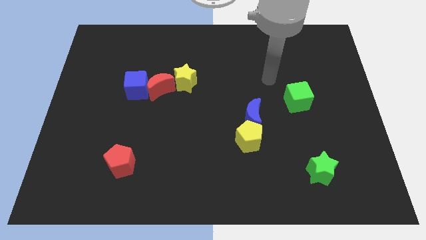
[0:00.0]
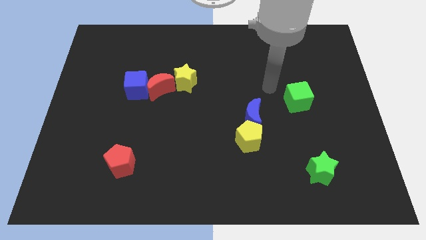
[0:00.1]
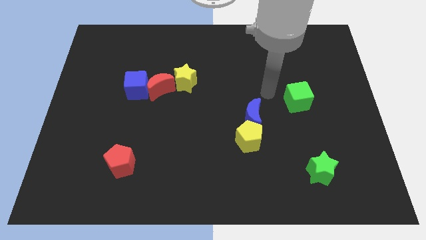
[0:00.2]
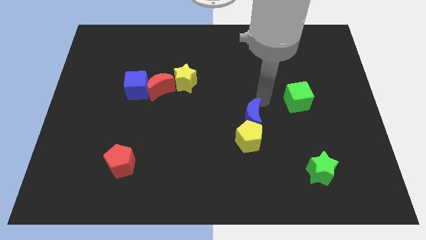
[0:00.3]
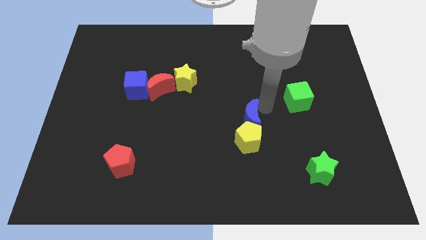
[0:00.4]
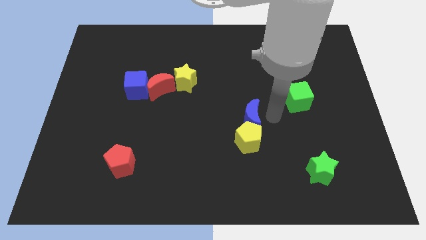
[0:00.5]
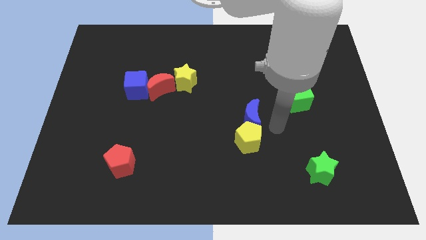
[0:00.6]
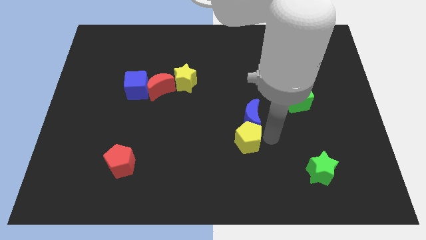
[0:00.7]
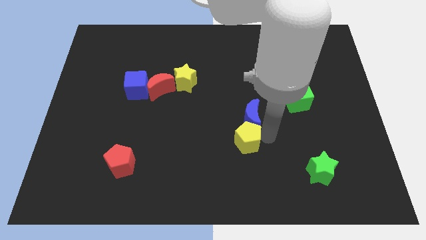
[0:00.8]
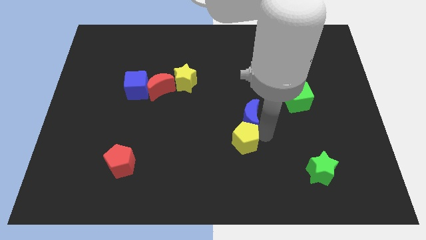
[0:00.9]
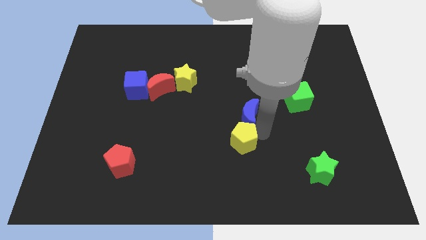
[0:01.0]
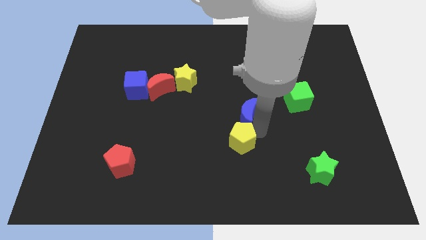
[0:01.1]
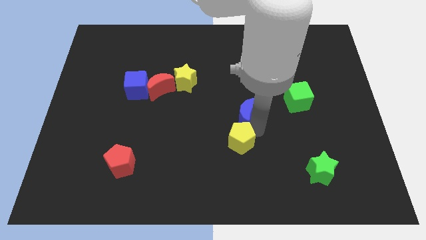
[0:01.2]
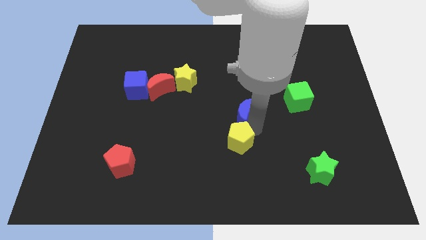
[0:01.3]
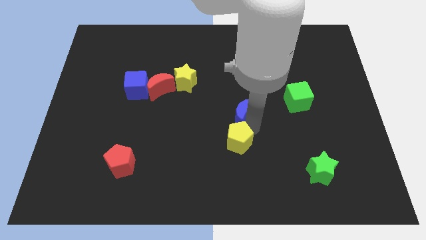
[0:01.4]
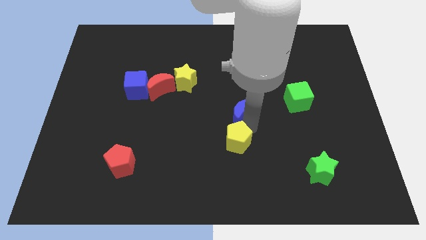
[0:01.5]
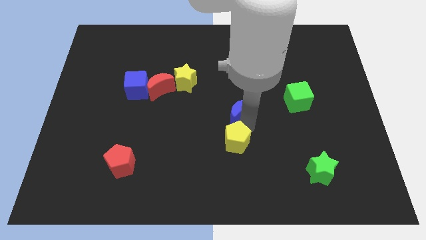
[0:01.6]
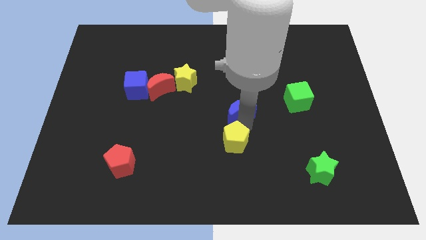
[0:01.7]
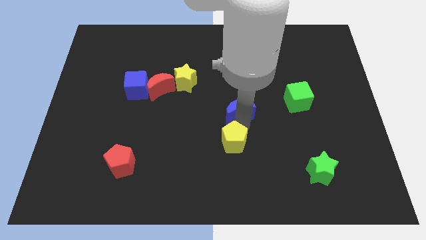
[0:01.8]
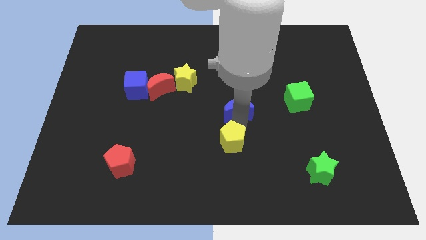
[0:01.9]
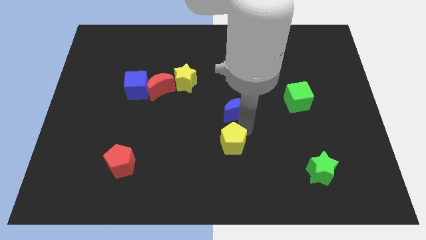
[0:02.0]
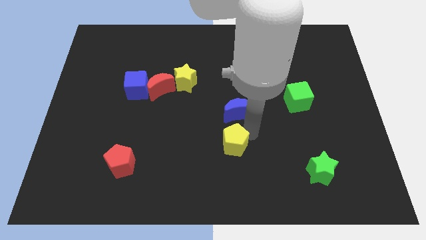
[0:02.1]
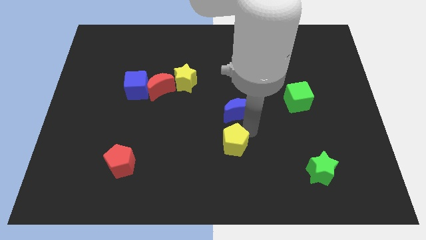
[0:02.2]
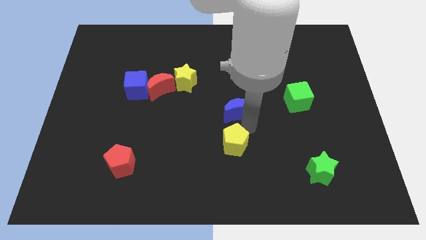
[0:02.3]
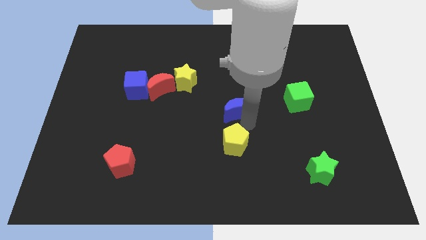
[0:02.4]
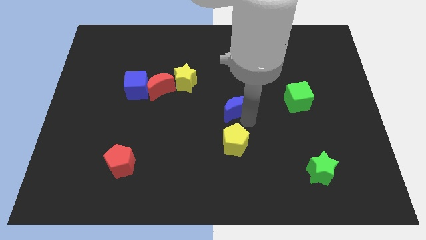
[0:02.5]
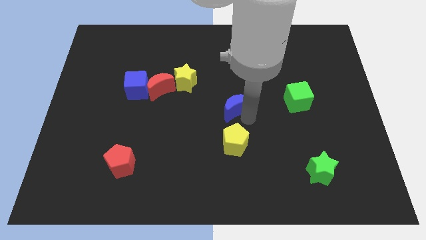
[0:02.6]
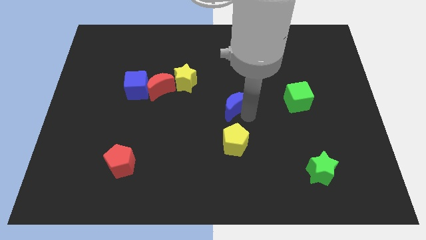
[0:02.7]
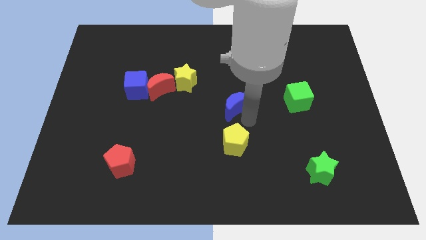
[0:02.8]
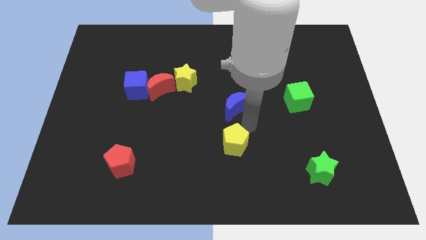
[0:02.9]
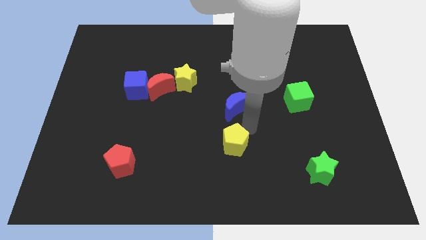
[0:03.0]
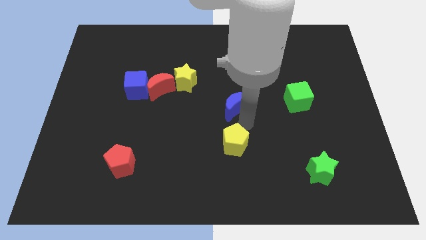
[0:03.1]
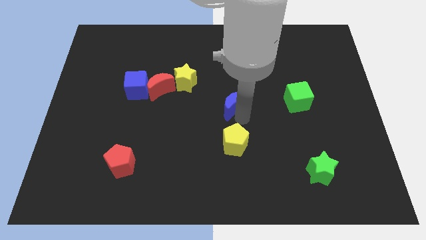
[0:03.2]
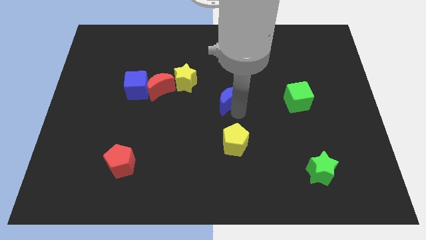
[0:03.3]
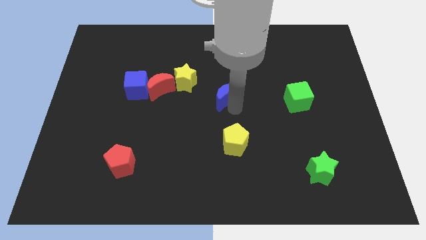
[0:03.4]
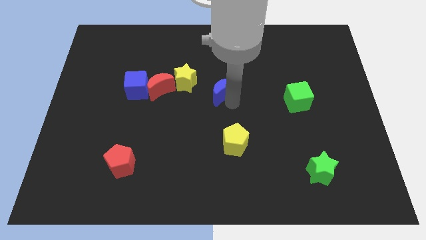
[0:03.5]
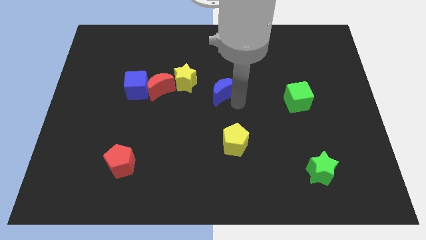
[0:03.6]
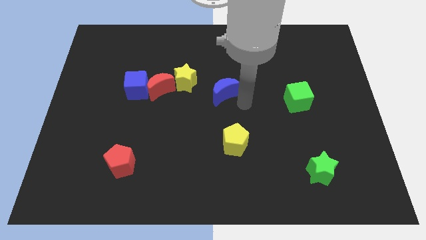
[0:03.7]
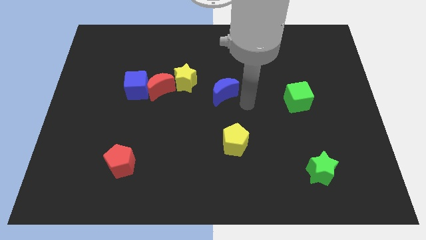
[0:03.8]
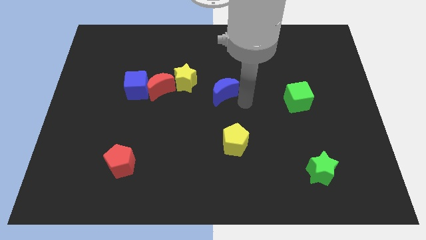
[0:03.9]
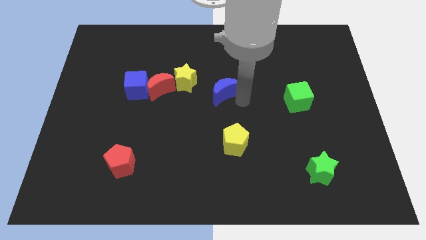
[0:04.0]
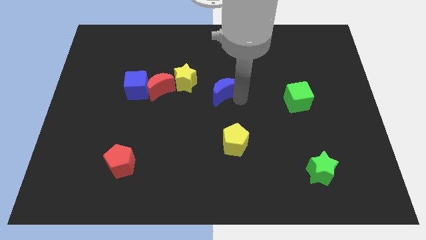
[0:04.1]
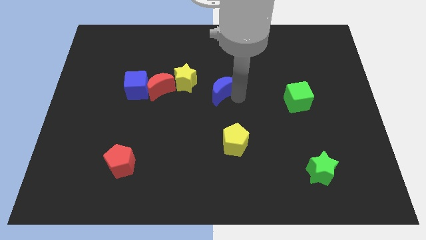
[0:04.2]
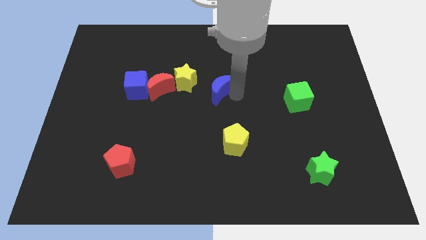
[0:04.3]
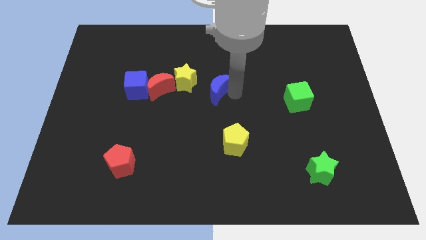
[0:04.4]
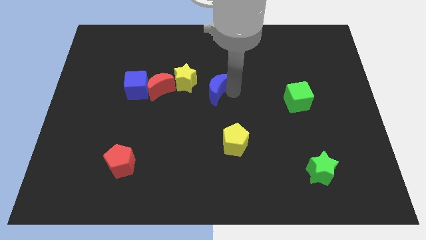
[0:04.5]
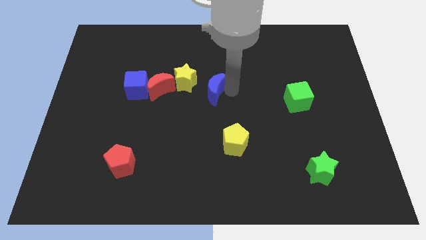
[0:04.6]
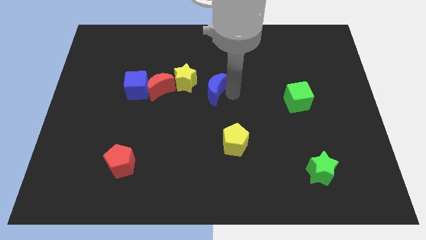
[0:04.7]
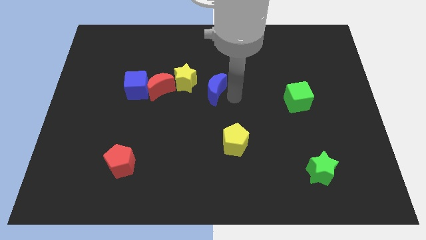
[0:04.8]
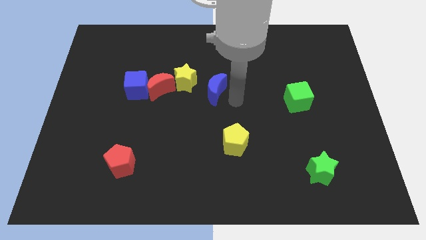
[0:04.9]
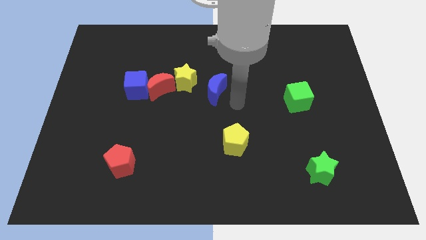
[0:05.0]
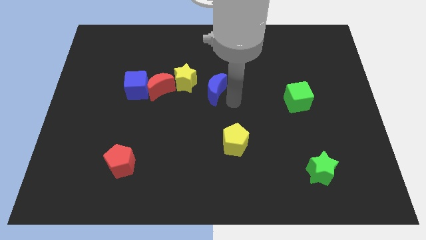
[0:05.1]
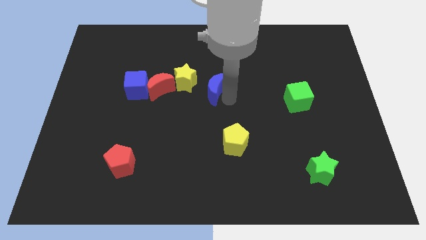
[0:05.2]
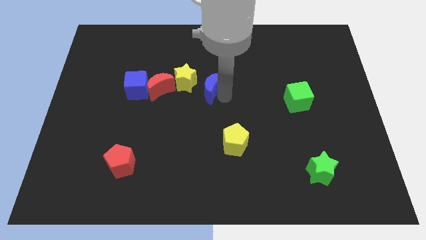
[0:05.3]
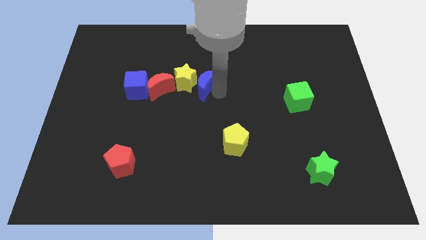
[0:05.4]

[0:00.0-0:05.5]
move the blue moon towards the yellow star

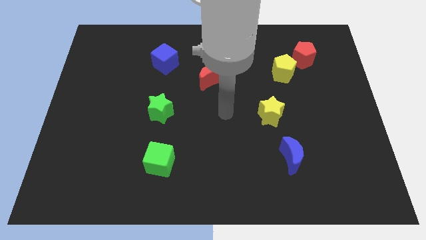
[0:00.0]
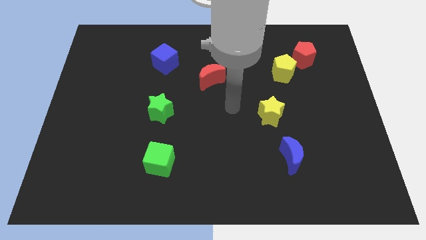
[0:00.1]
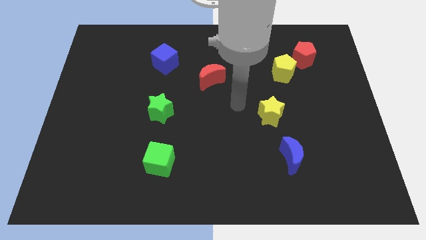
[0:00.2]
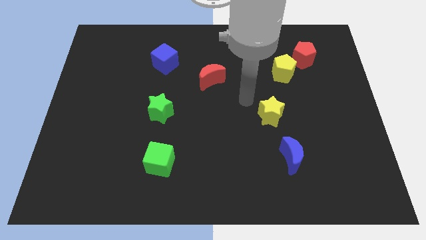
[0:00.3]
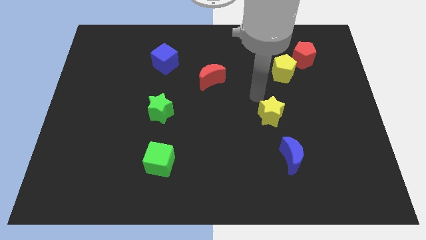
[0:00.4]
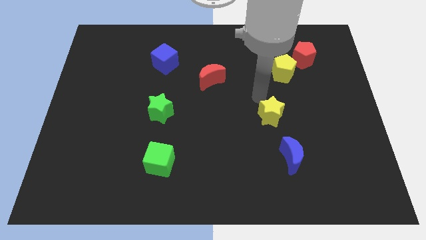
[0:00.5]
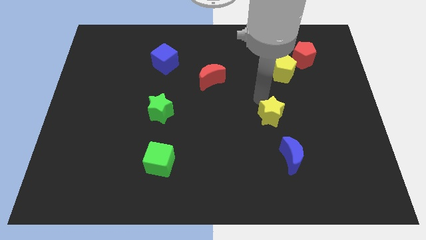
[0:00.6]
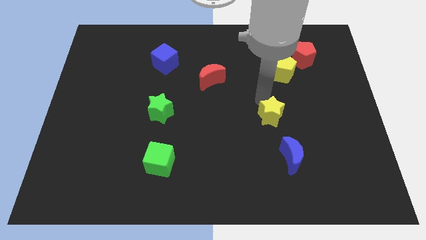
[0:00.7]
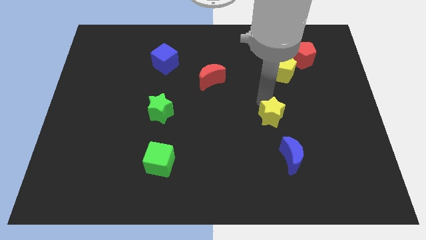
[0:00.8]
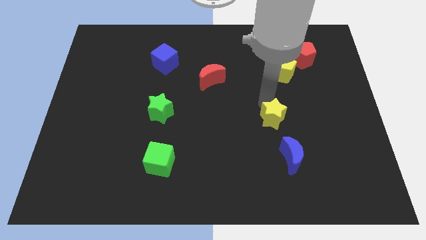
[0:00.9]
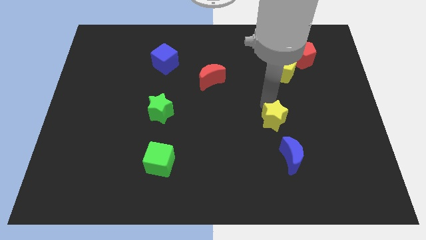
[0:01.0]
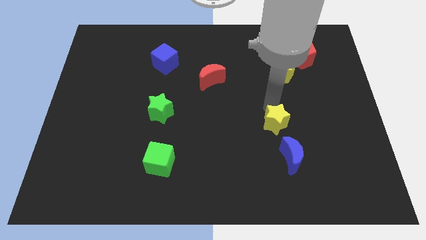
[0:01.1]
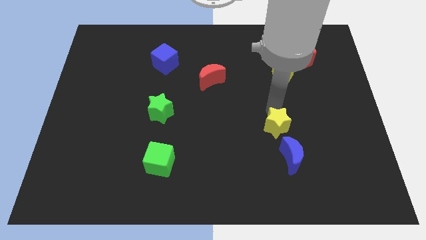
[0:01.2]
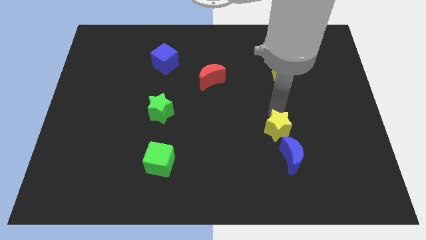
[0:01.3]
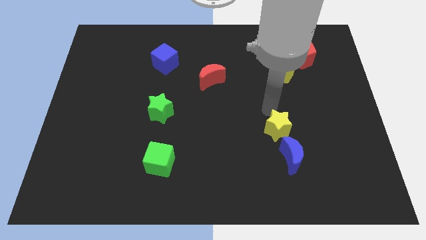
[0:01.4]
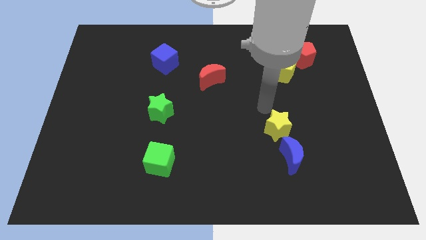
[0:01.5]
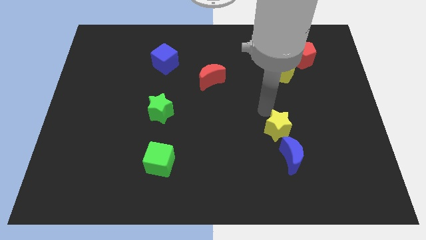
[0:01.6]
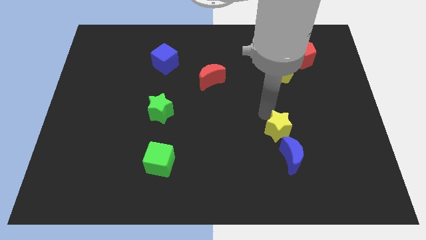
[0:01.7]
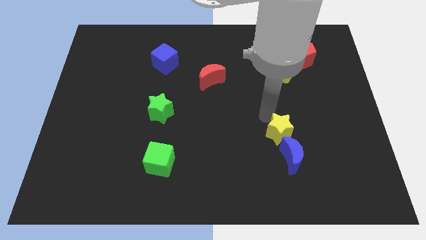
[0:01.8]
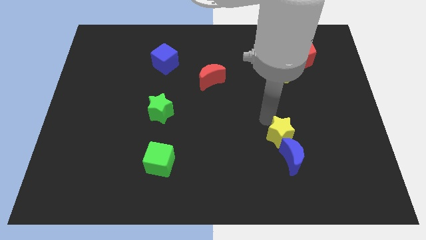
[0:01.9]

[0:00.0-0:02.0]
move the yellow star to the blue moon
